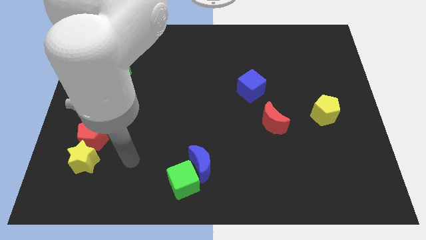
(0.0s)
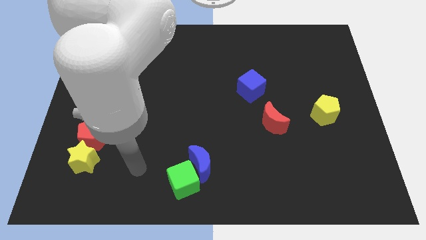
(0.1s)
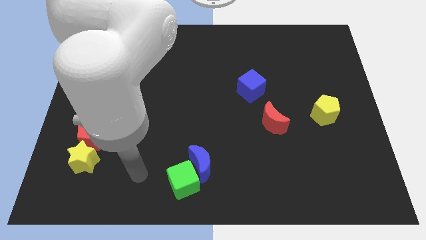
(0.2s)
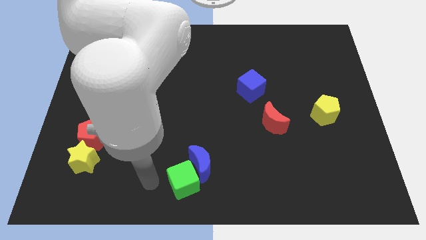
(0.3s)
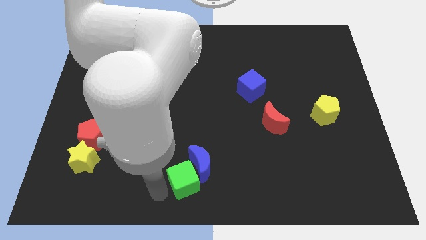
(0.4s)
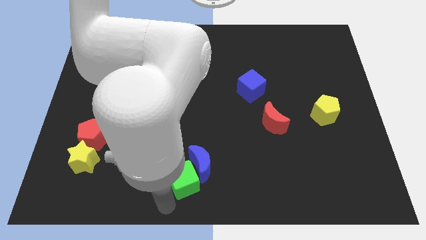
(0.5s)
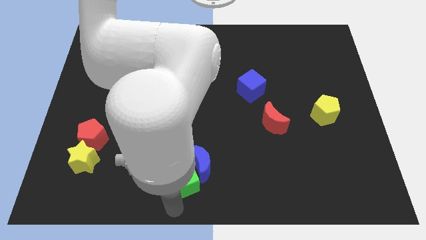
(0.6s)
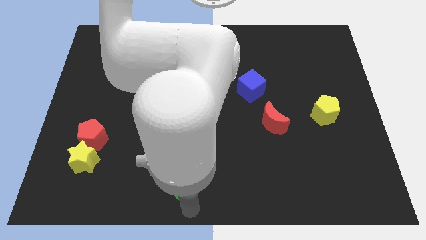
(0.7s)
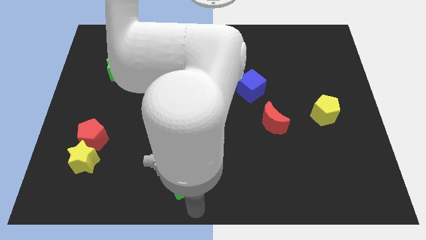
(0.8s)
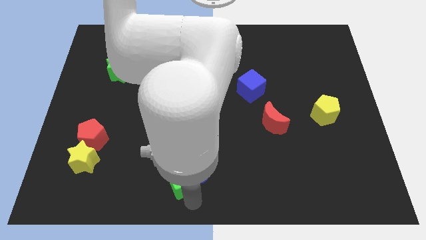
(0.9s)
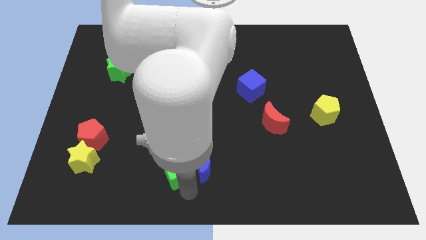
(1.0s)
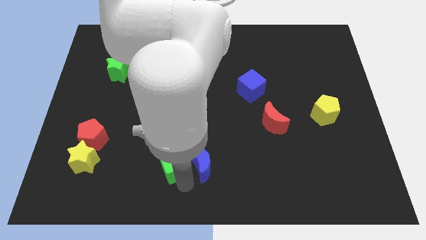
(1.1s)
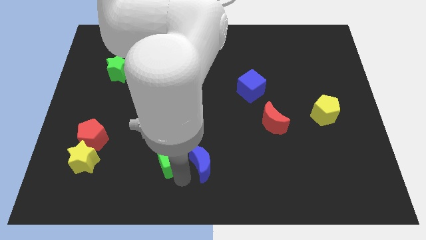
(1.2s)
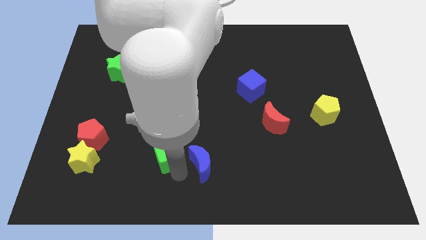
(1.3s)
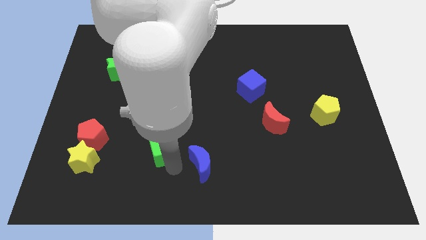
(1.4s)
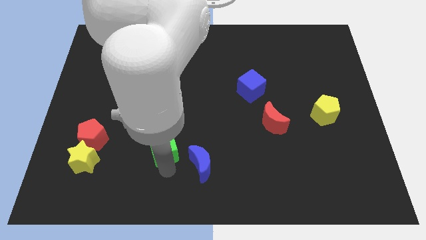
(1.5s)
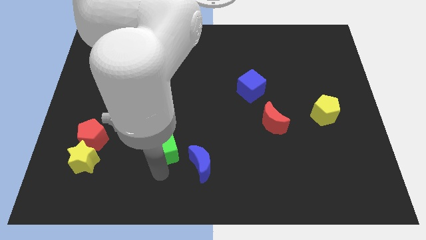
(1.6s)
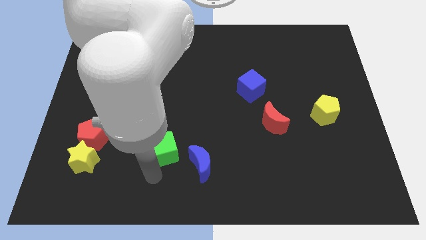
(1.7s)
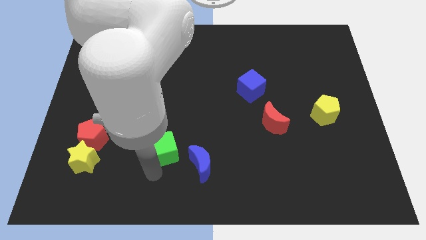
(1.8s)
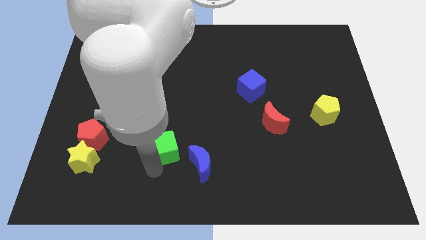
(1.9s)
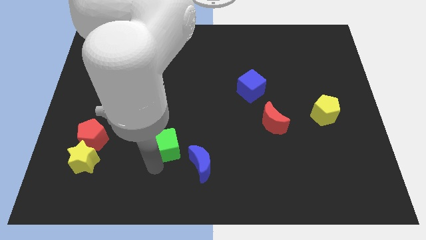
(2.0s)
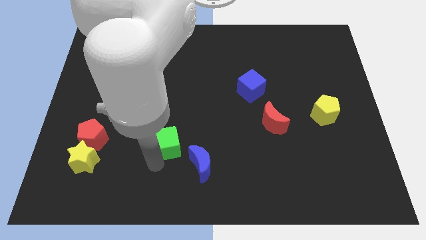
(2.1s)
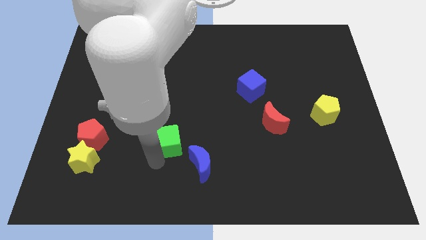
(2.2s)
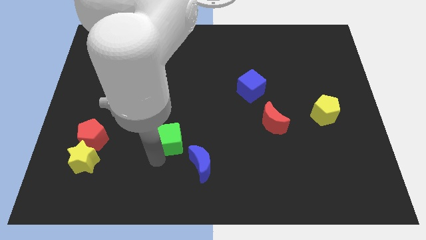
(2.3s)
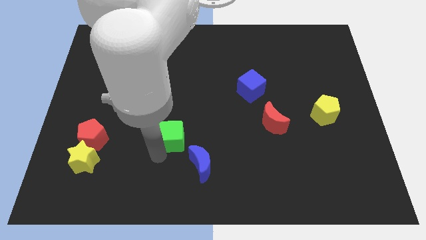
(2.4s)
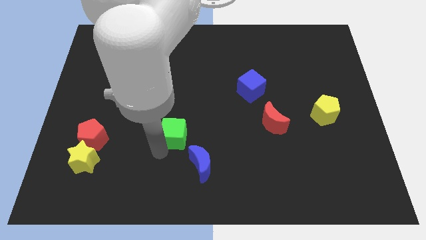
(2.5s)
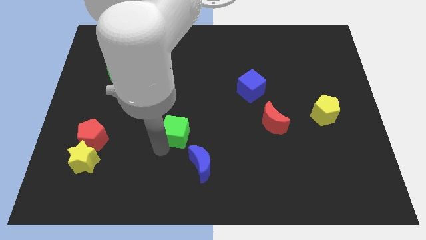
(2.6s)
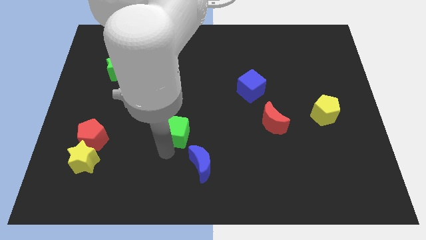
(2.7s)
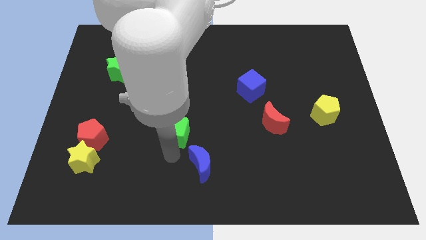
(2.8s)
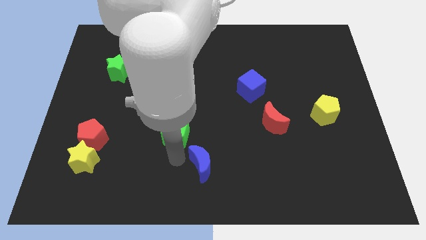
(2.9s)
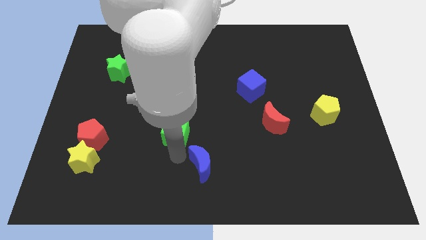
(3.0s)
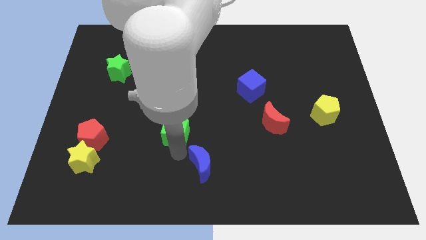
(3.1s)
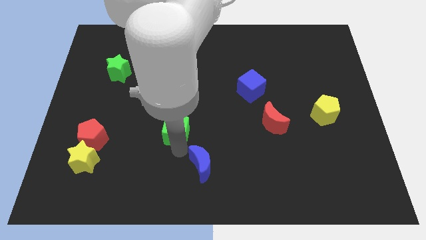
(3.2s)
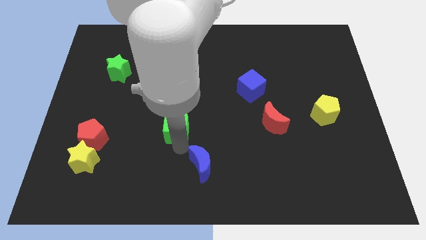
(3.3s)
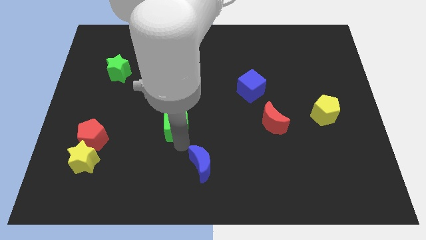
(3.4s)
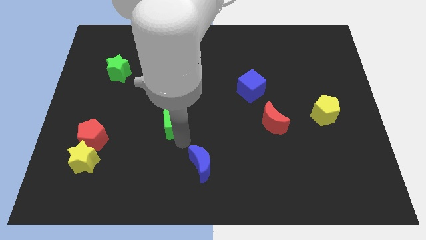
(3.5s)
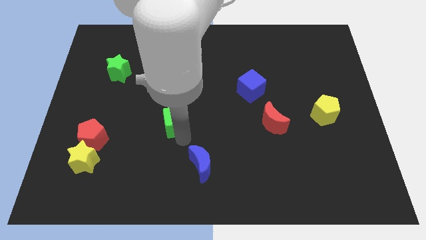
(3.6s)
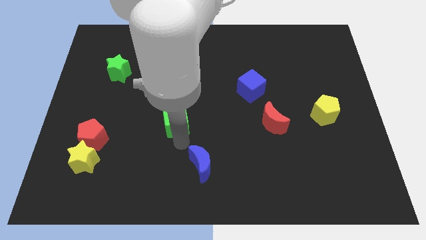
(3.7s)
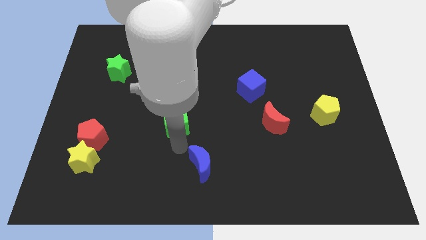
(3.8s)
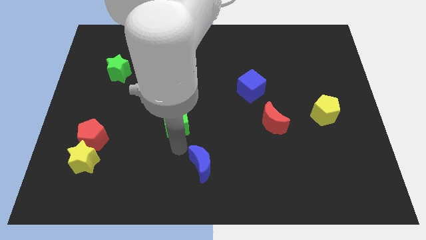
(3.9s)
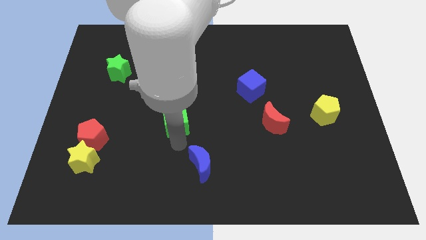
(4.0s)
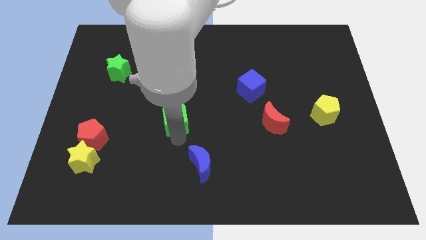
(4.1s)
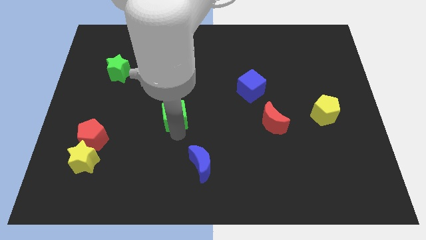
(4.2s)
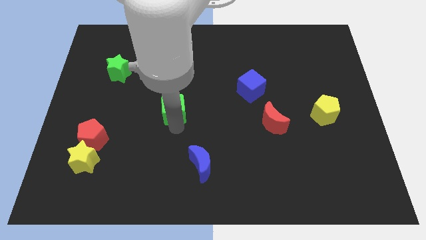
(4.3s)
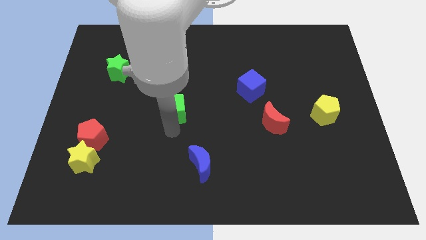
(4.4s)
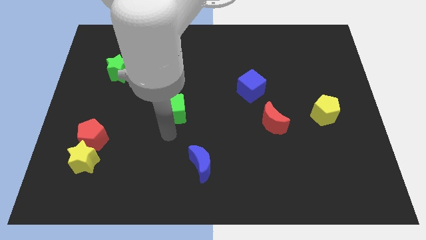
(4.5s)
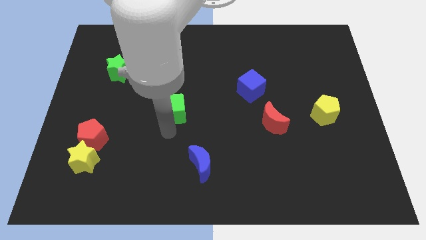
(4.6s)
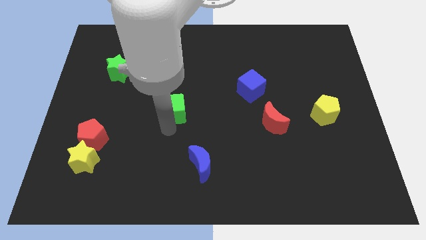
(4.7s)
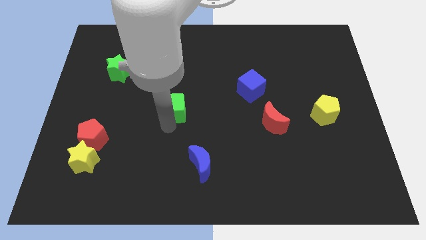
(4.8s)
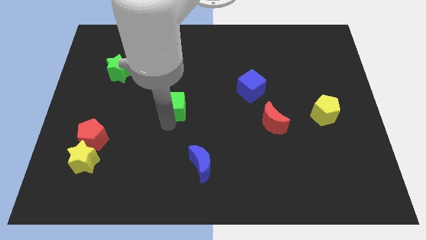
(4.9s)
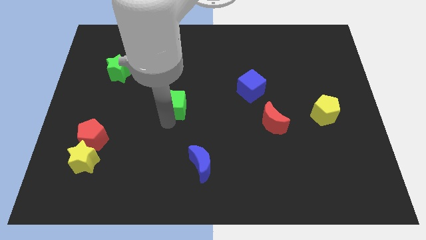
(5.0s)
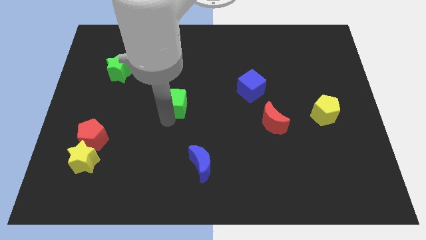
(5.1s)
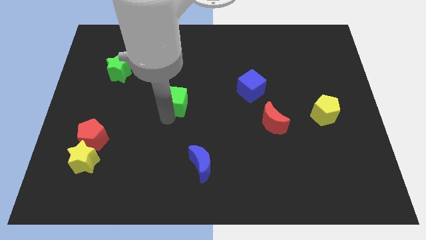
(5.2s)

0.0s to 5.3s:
slide the green cube upwards

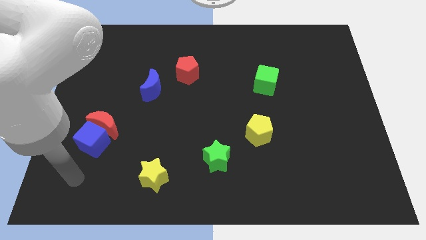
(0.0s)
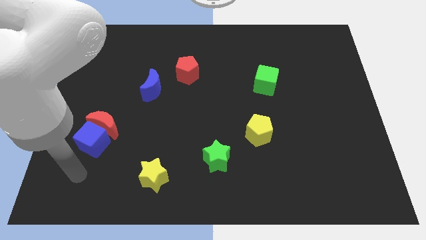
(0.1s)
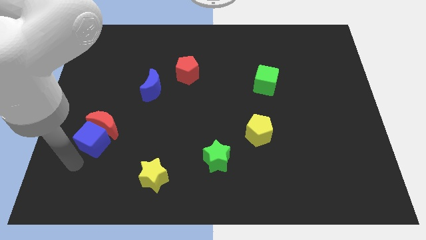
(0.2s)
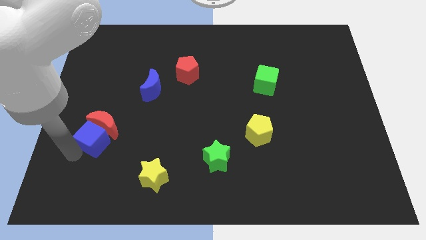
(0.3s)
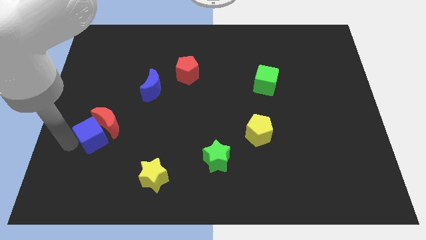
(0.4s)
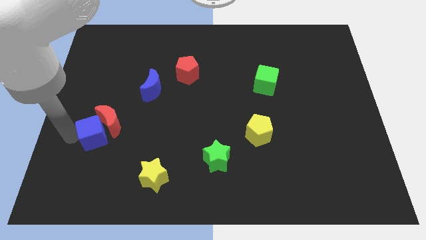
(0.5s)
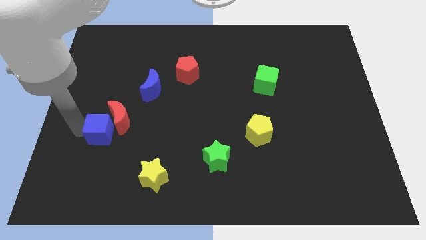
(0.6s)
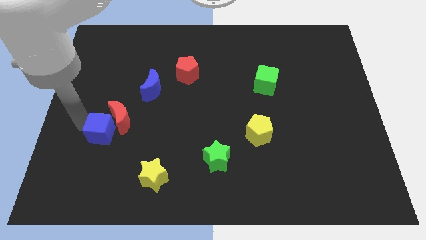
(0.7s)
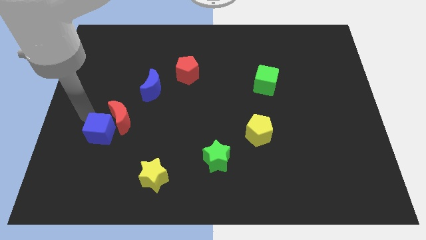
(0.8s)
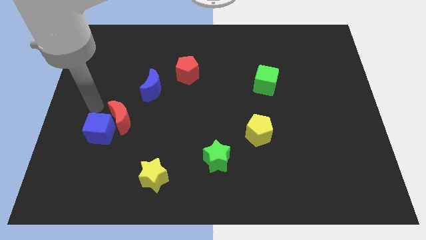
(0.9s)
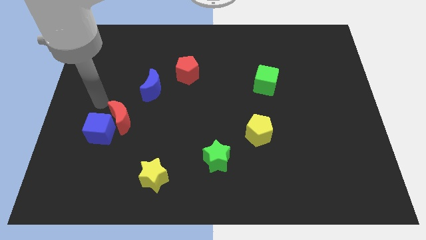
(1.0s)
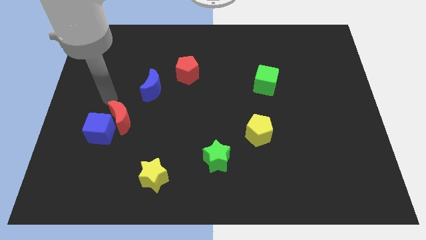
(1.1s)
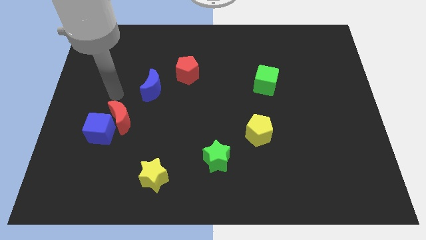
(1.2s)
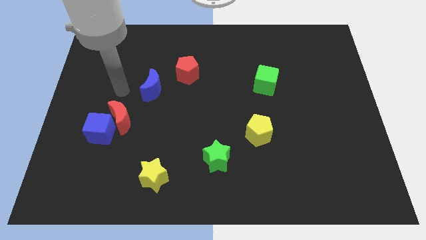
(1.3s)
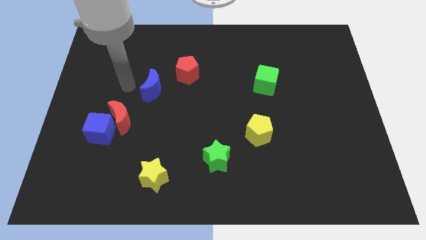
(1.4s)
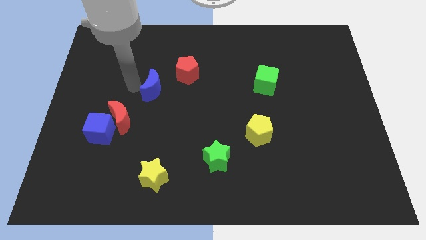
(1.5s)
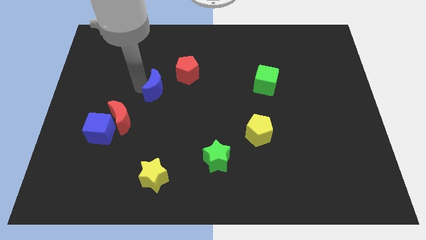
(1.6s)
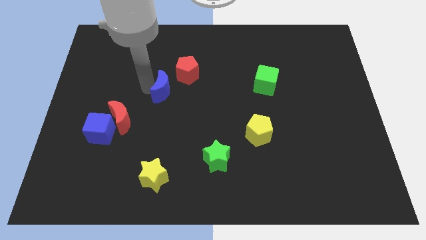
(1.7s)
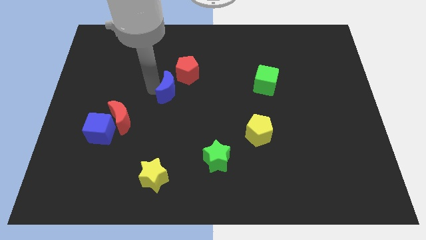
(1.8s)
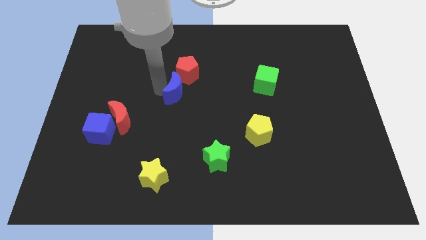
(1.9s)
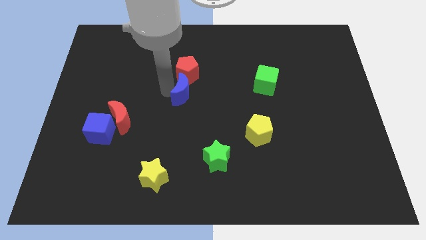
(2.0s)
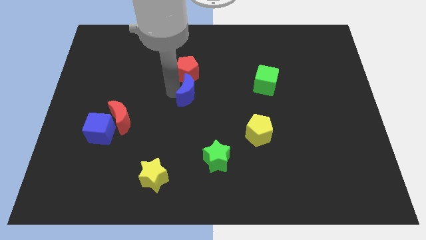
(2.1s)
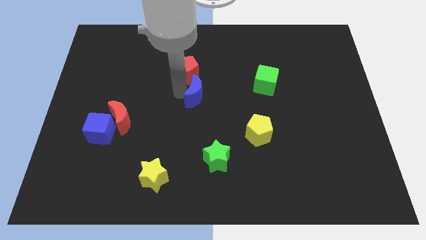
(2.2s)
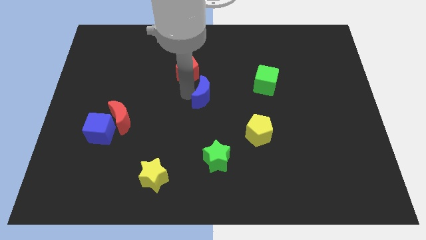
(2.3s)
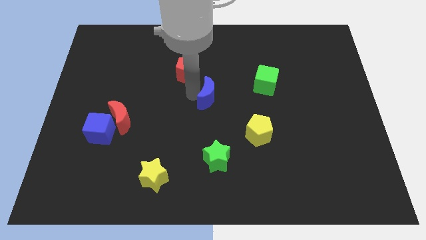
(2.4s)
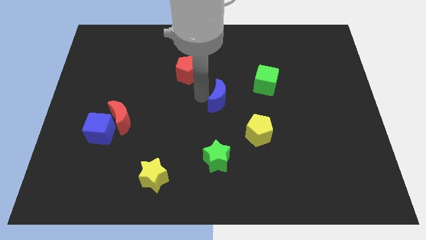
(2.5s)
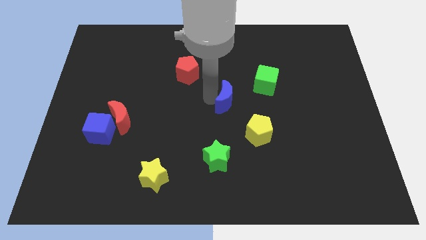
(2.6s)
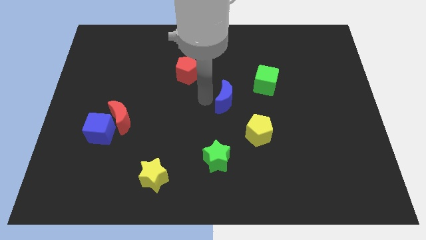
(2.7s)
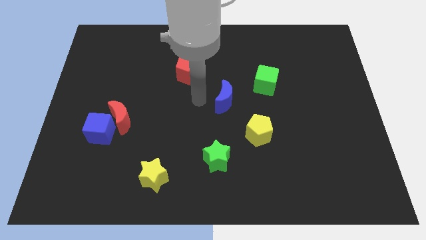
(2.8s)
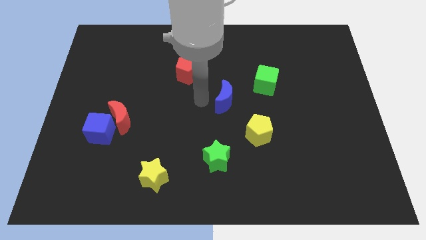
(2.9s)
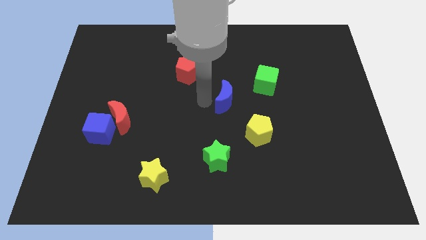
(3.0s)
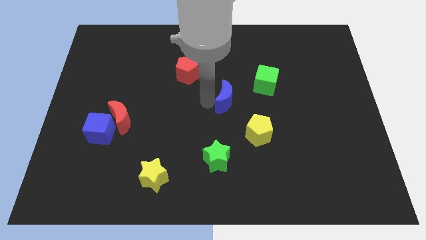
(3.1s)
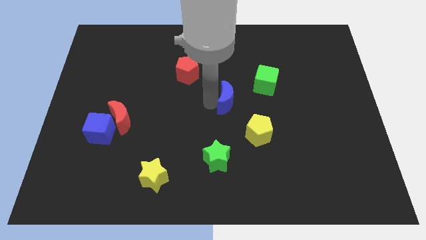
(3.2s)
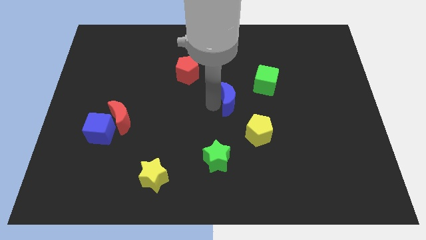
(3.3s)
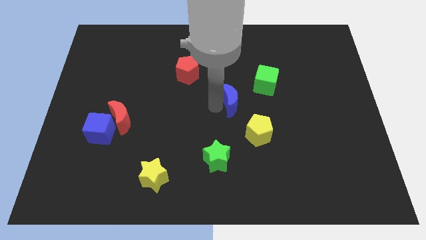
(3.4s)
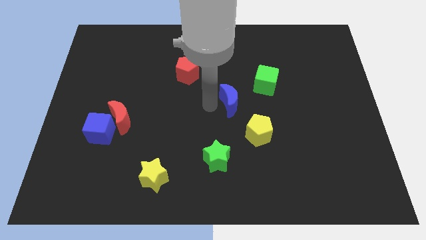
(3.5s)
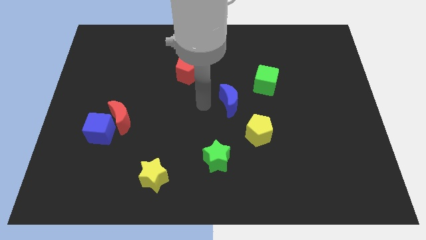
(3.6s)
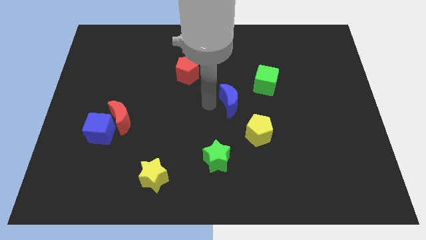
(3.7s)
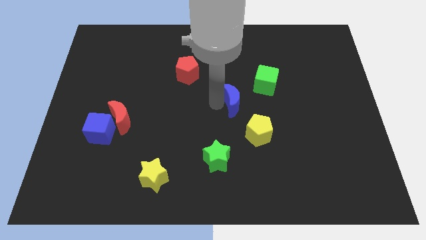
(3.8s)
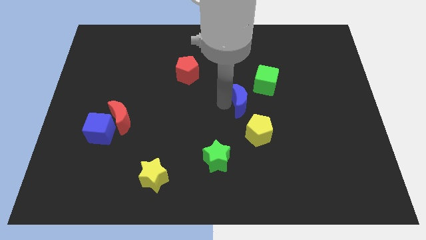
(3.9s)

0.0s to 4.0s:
move the blue moon to the right
